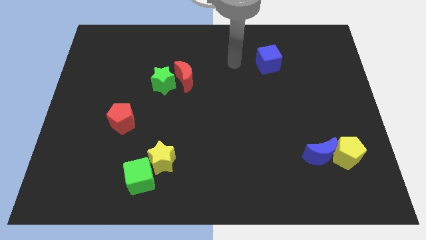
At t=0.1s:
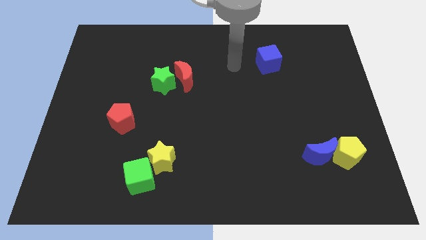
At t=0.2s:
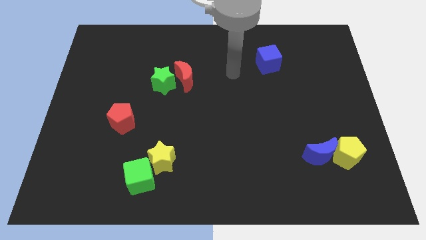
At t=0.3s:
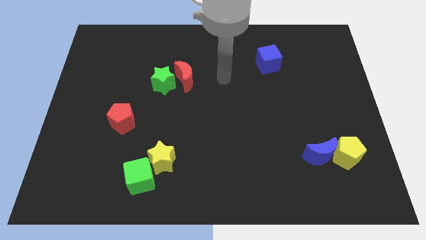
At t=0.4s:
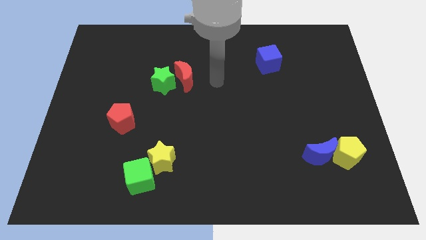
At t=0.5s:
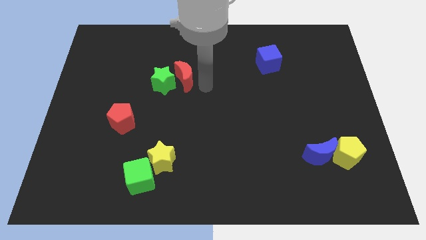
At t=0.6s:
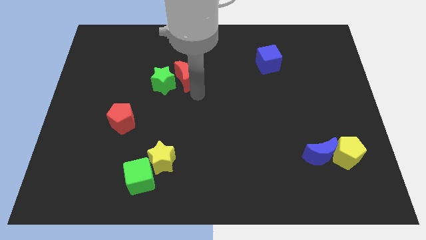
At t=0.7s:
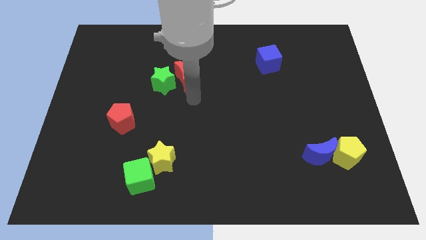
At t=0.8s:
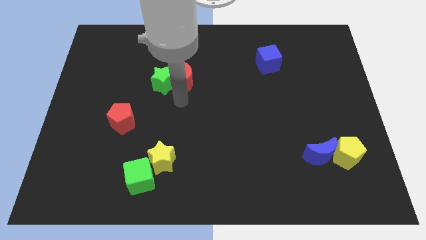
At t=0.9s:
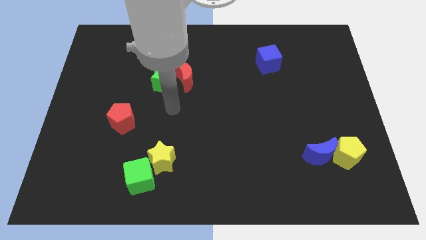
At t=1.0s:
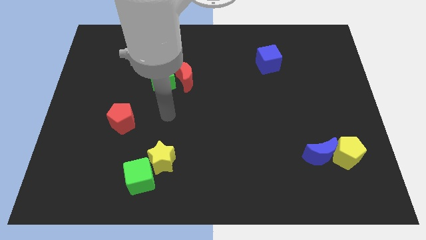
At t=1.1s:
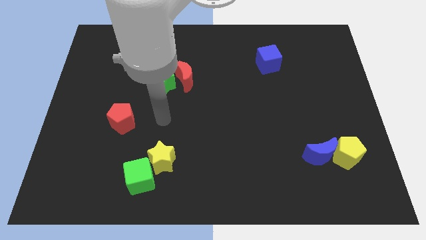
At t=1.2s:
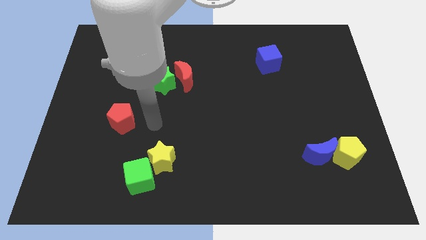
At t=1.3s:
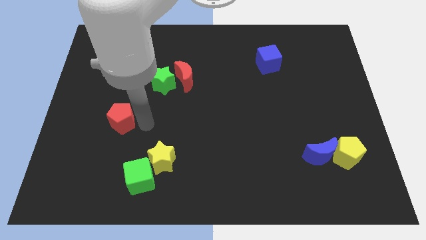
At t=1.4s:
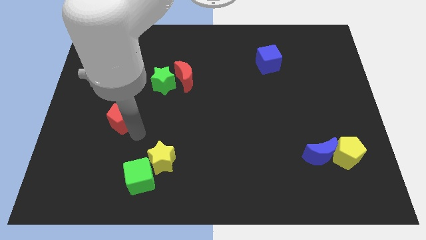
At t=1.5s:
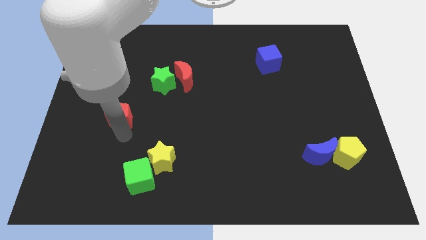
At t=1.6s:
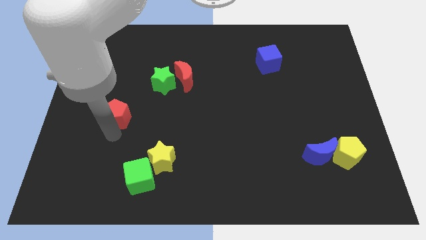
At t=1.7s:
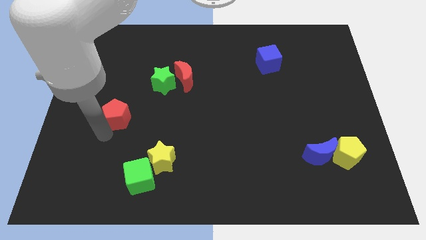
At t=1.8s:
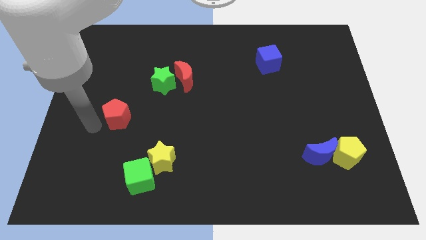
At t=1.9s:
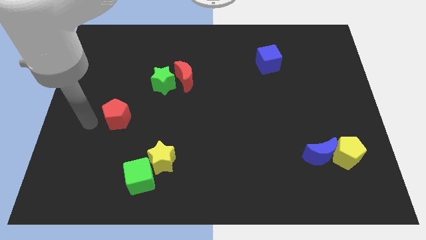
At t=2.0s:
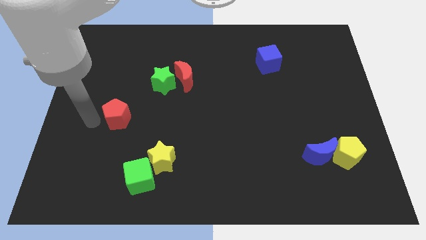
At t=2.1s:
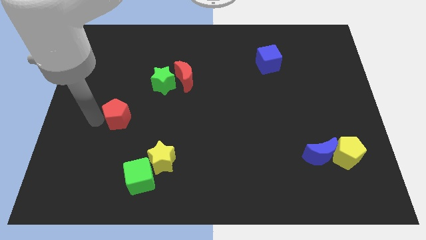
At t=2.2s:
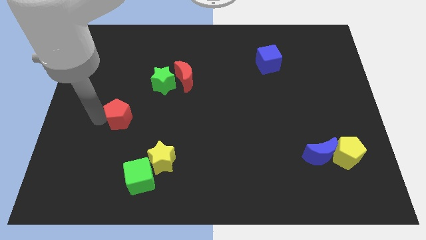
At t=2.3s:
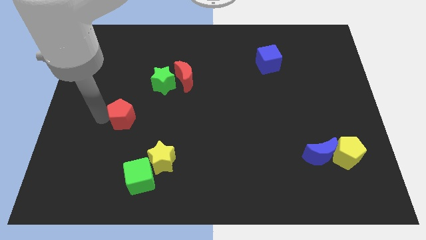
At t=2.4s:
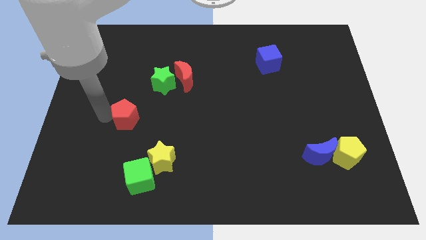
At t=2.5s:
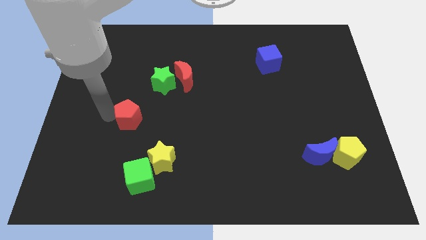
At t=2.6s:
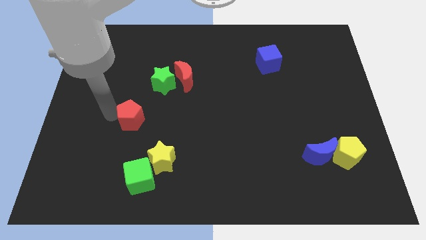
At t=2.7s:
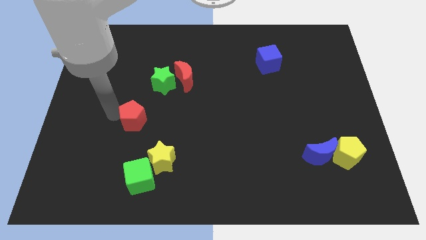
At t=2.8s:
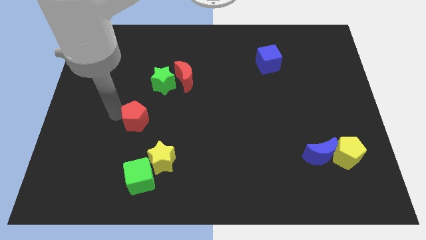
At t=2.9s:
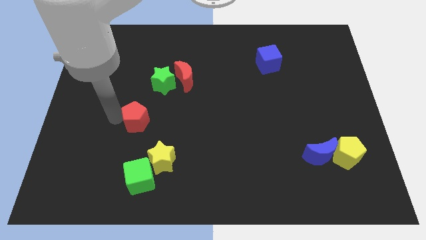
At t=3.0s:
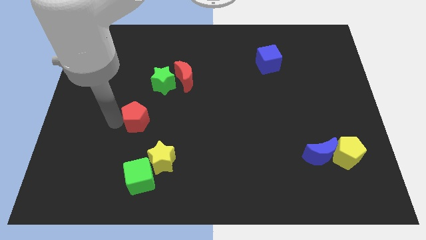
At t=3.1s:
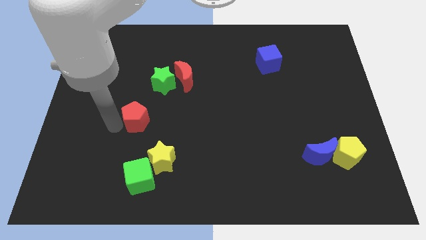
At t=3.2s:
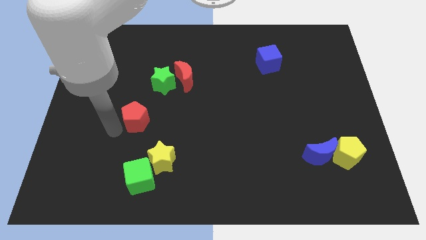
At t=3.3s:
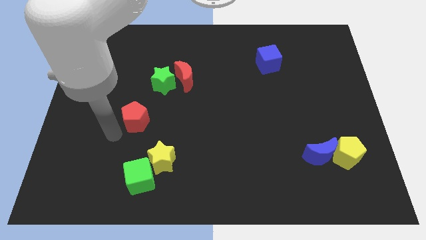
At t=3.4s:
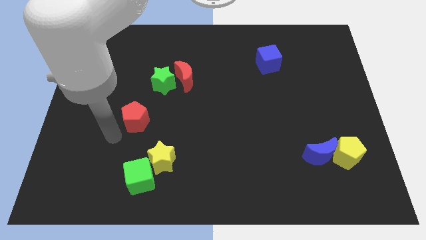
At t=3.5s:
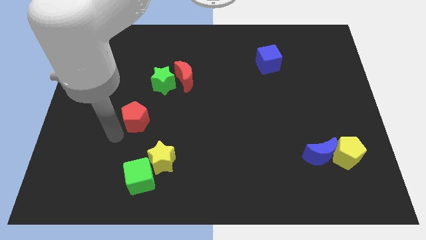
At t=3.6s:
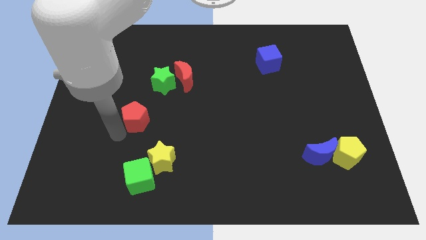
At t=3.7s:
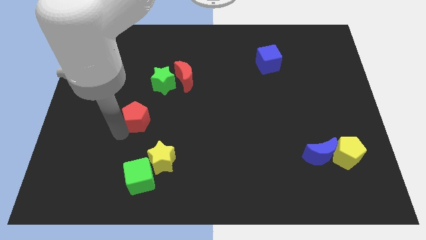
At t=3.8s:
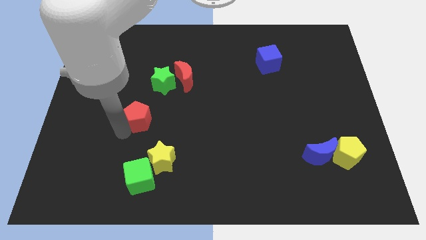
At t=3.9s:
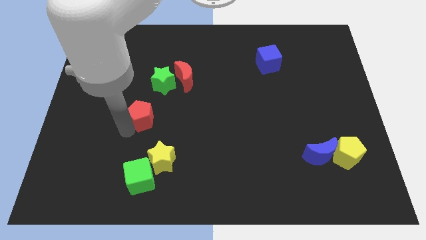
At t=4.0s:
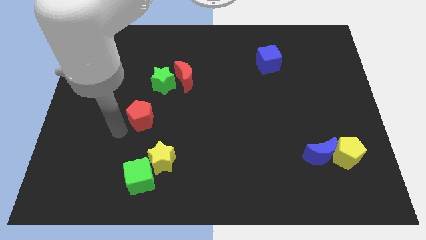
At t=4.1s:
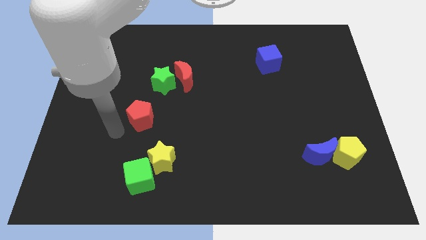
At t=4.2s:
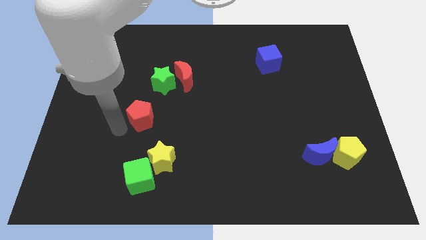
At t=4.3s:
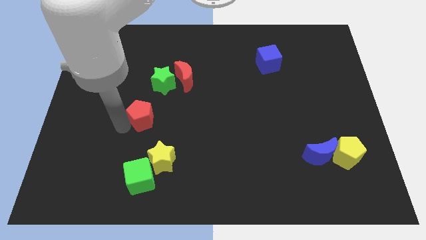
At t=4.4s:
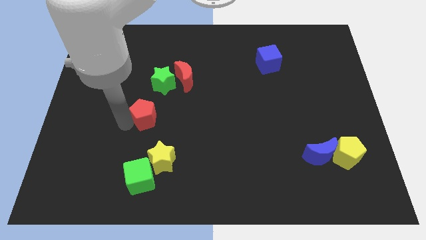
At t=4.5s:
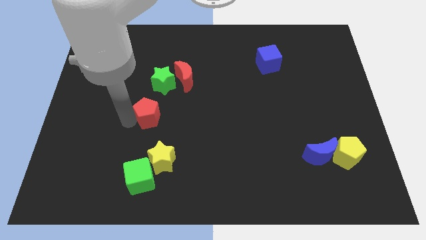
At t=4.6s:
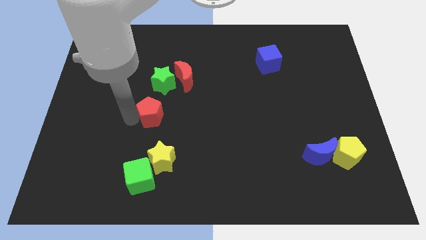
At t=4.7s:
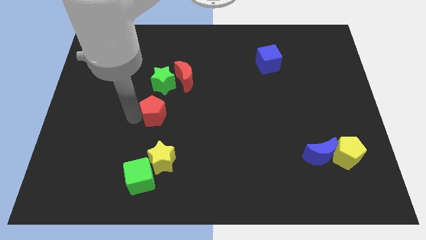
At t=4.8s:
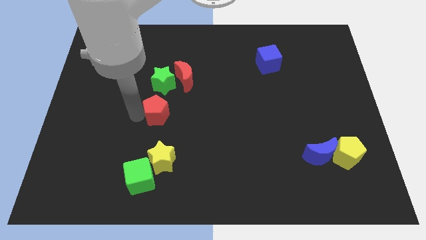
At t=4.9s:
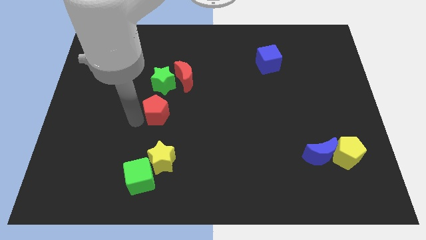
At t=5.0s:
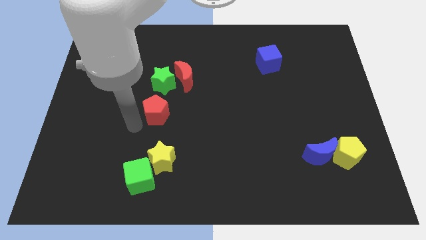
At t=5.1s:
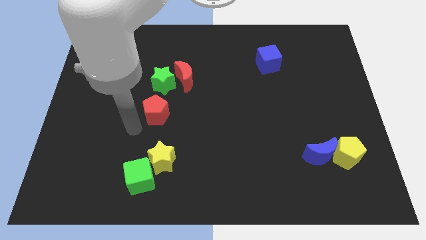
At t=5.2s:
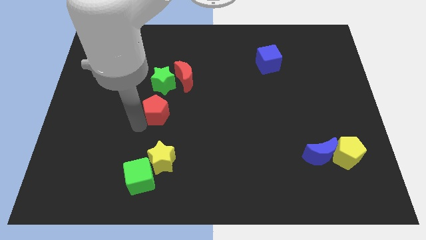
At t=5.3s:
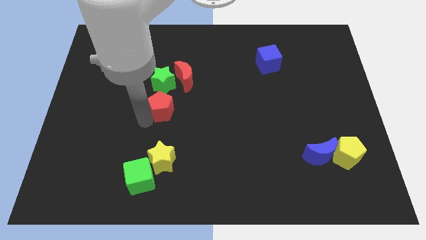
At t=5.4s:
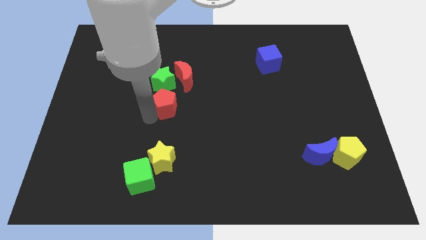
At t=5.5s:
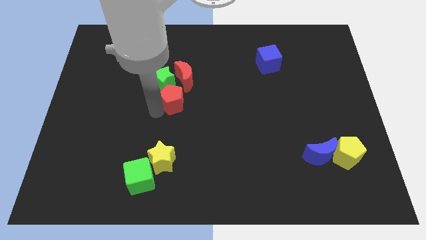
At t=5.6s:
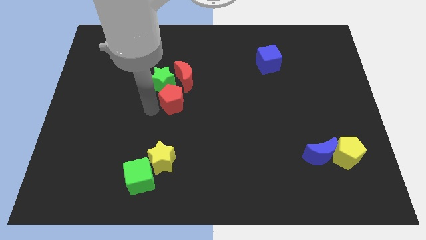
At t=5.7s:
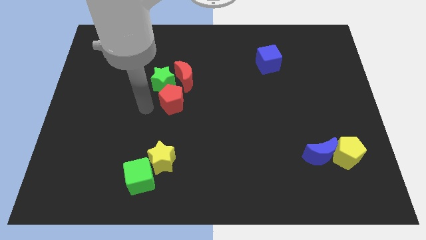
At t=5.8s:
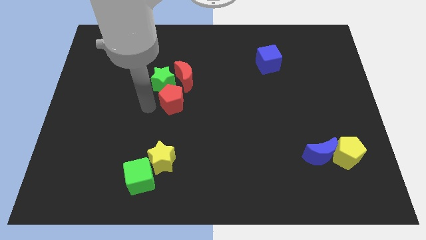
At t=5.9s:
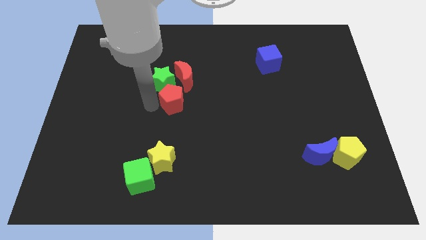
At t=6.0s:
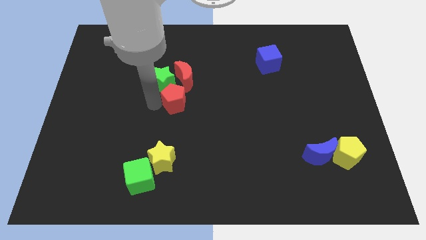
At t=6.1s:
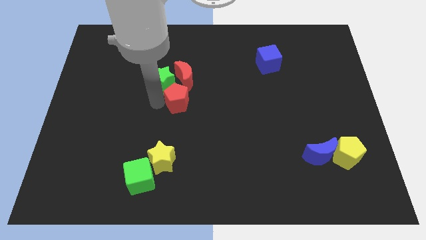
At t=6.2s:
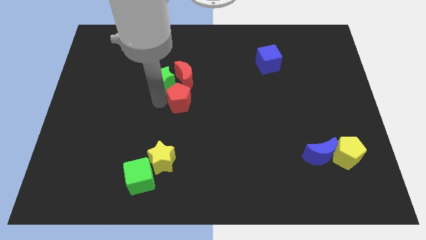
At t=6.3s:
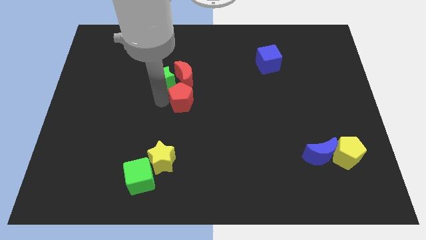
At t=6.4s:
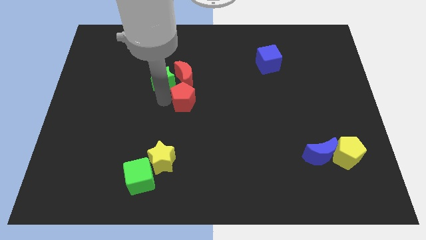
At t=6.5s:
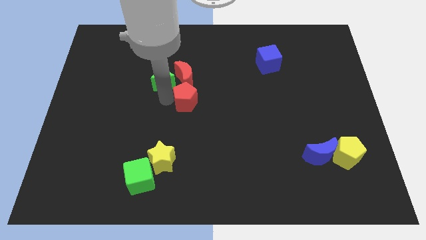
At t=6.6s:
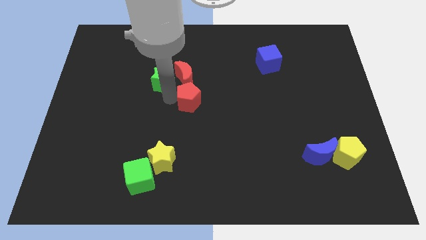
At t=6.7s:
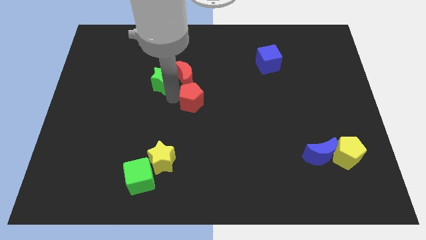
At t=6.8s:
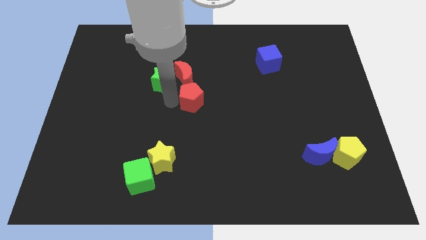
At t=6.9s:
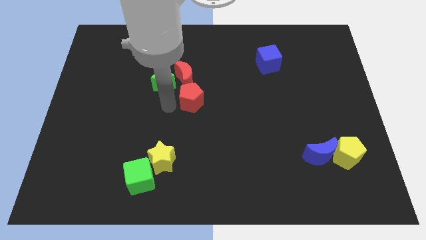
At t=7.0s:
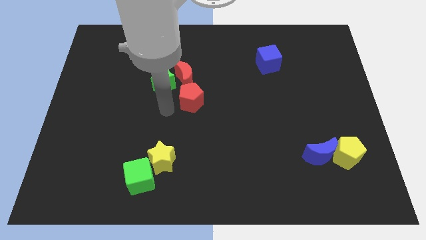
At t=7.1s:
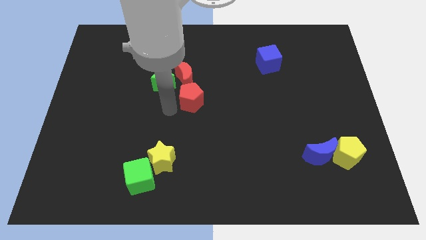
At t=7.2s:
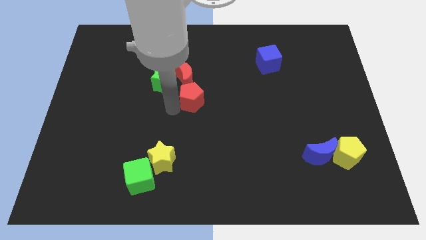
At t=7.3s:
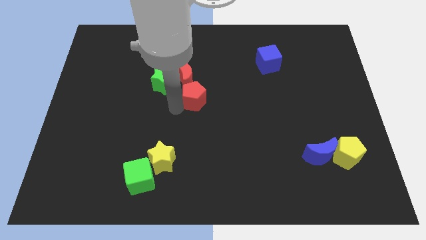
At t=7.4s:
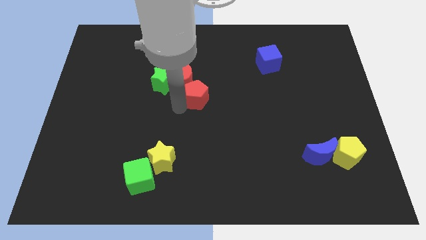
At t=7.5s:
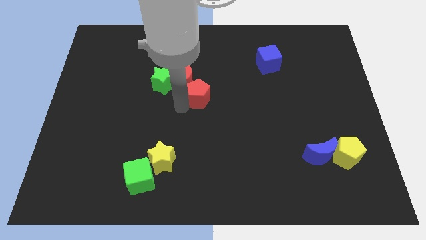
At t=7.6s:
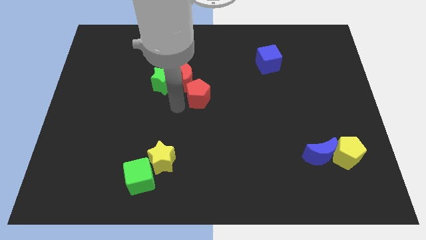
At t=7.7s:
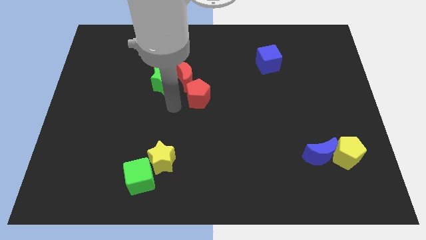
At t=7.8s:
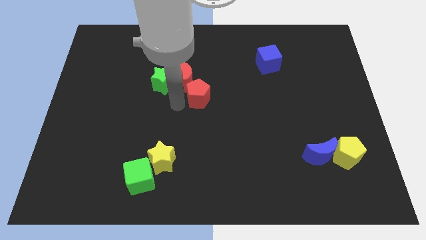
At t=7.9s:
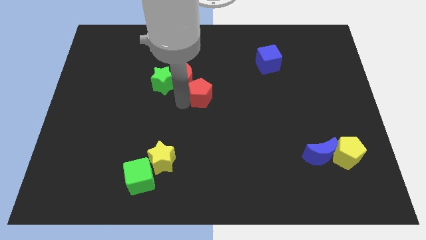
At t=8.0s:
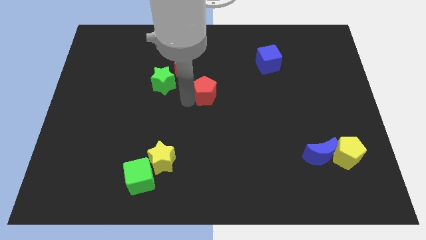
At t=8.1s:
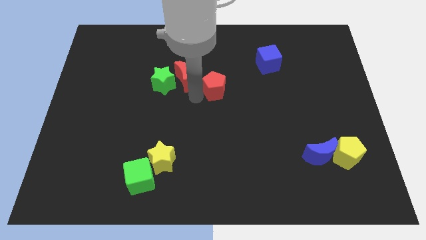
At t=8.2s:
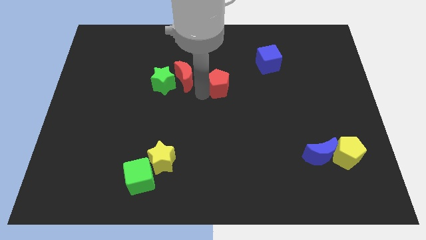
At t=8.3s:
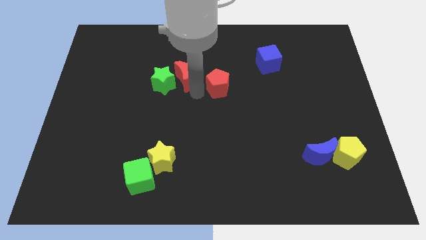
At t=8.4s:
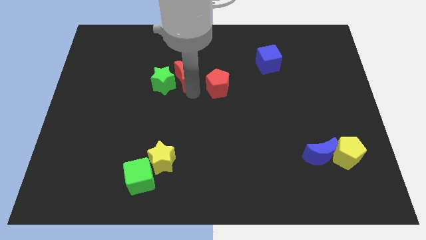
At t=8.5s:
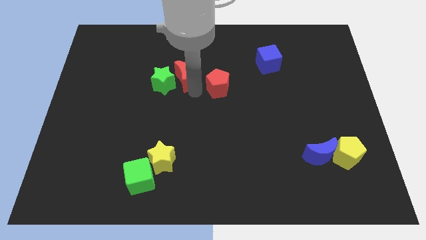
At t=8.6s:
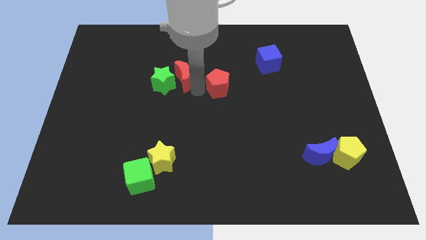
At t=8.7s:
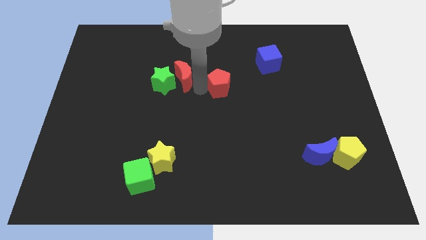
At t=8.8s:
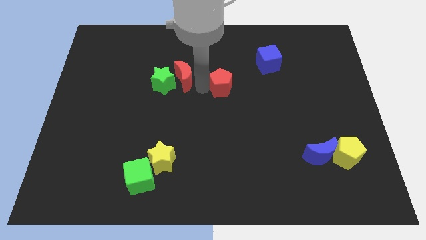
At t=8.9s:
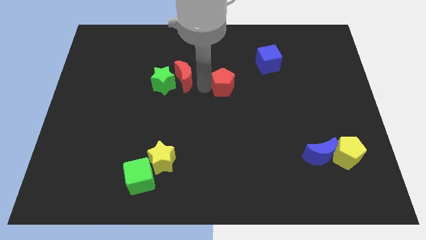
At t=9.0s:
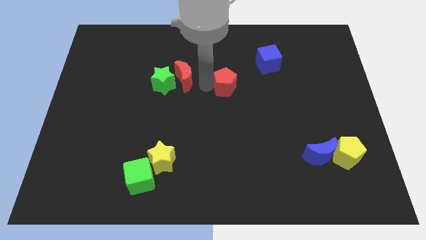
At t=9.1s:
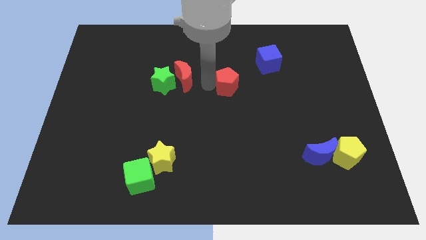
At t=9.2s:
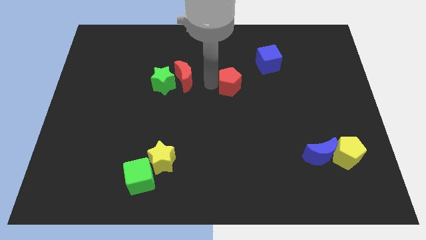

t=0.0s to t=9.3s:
put the red pentagon diagonally down and to the left of the blue cube
